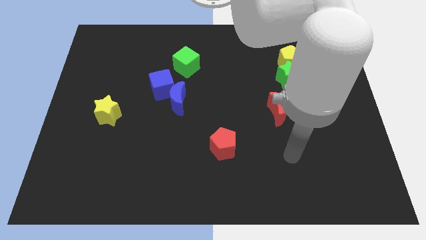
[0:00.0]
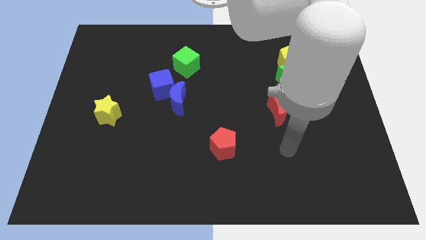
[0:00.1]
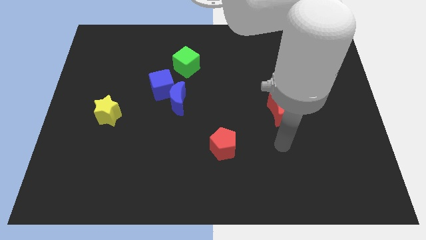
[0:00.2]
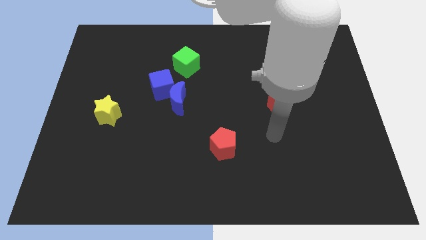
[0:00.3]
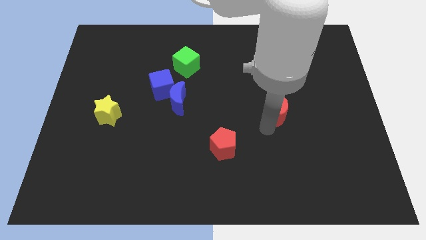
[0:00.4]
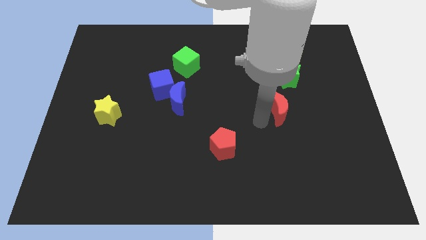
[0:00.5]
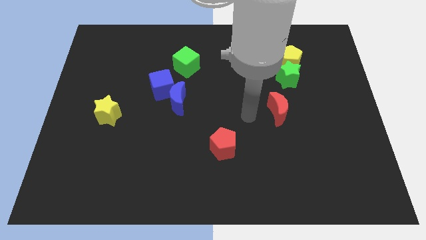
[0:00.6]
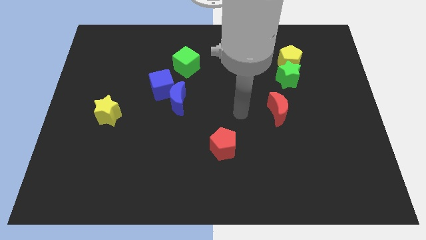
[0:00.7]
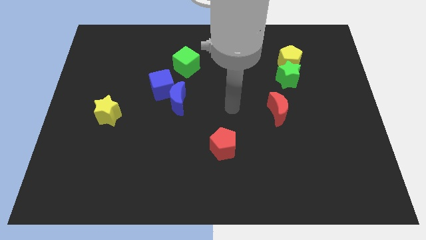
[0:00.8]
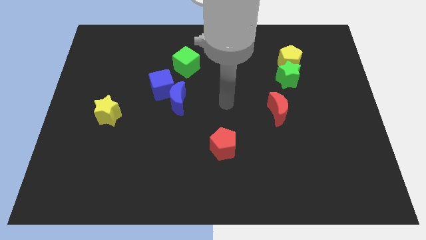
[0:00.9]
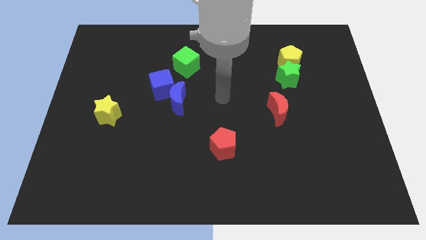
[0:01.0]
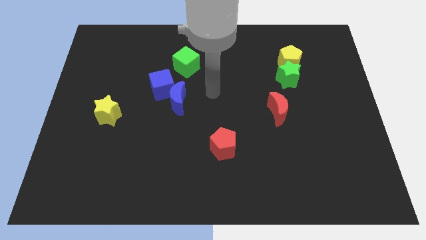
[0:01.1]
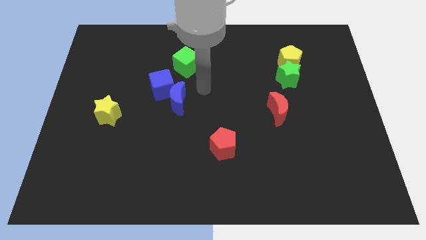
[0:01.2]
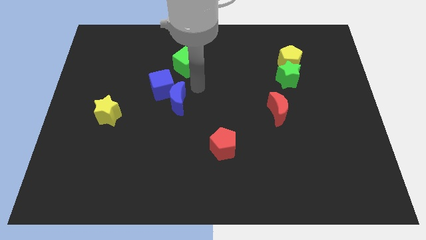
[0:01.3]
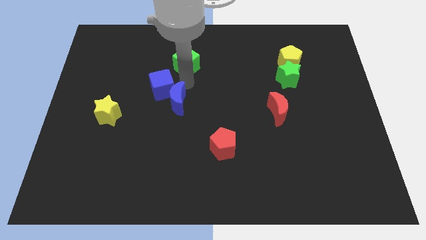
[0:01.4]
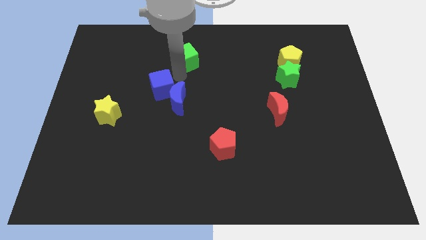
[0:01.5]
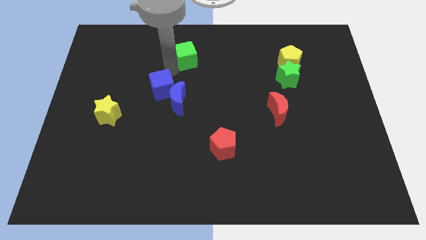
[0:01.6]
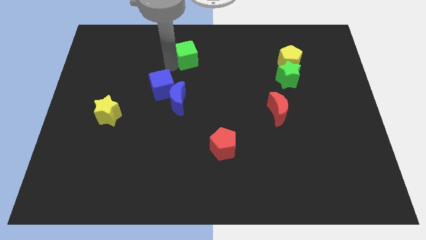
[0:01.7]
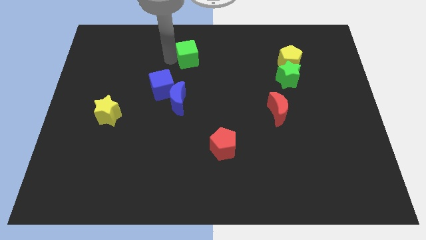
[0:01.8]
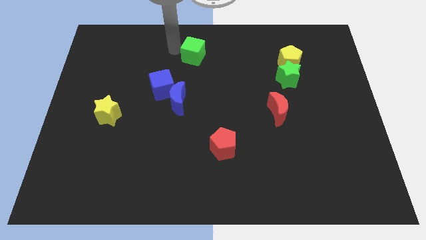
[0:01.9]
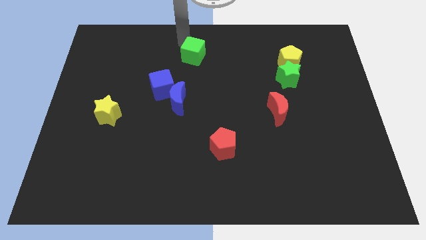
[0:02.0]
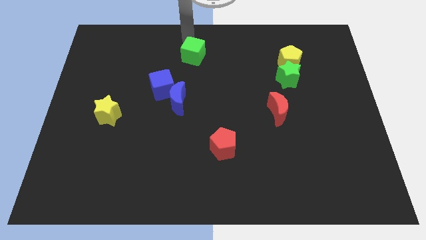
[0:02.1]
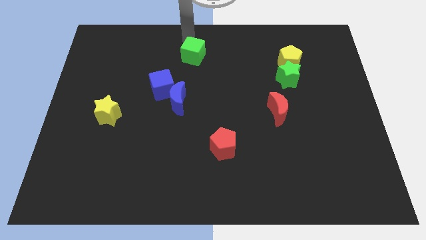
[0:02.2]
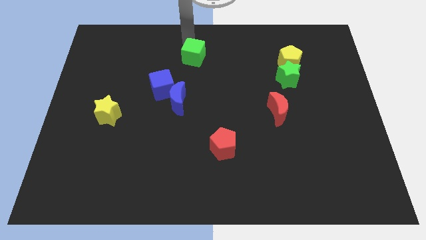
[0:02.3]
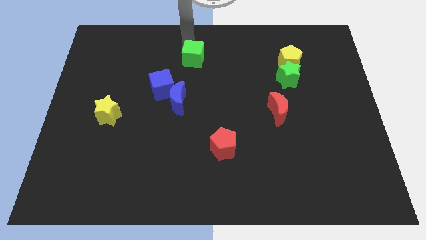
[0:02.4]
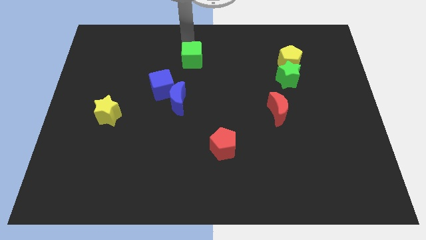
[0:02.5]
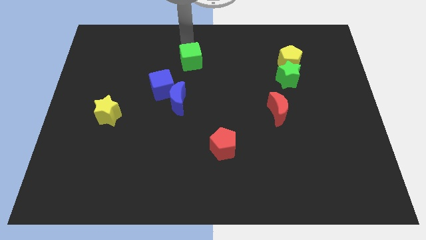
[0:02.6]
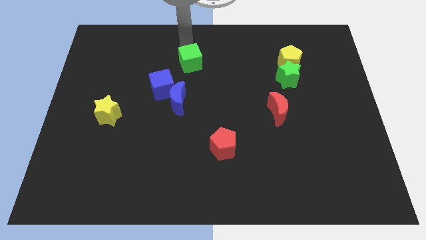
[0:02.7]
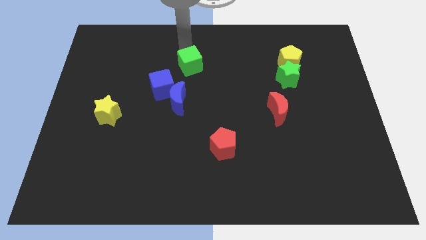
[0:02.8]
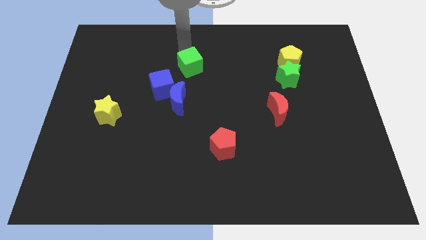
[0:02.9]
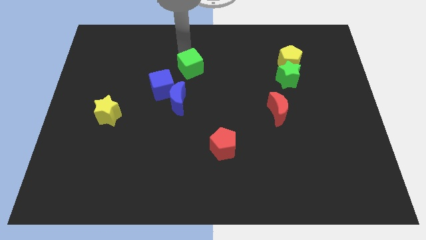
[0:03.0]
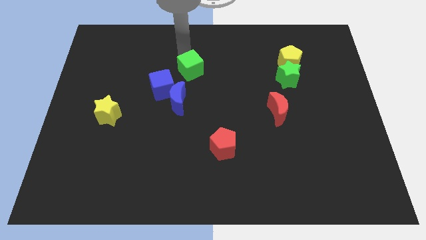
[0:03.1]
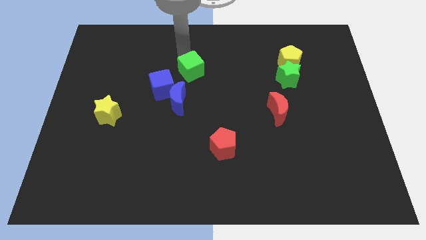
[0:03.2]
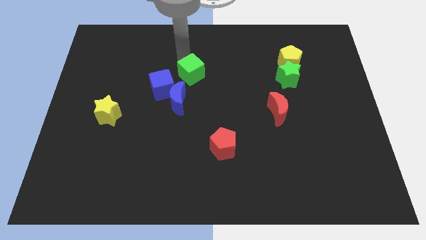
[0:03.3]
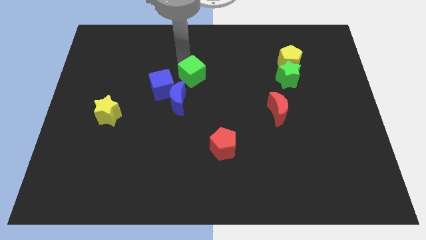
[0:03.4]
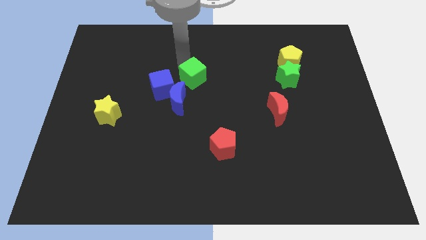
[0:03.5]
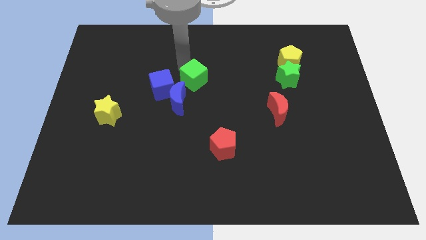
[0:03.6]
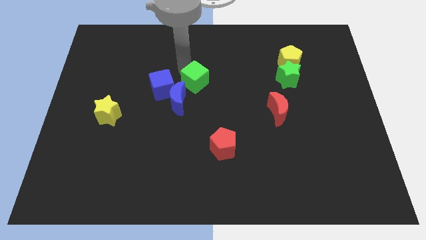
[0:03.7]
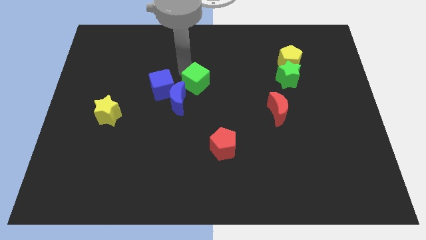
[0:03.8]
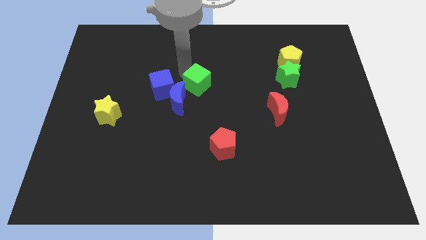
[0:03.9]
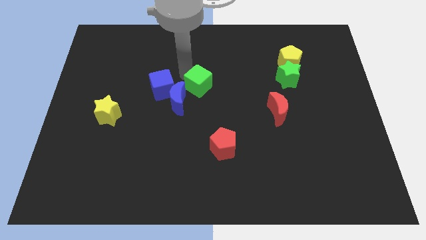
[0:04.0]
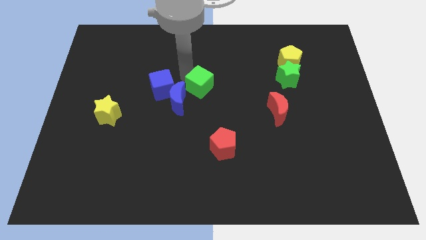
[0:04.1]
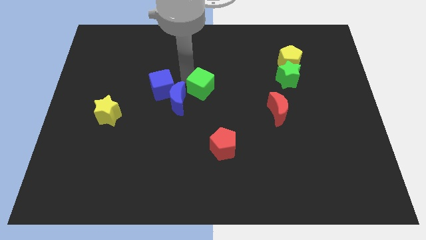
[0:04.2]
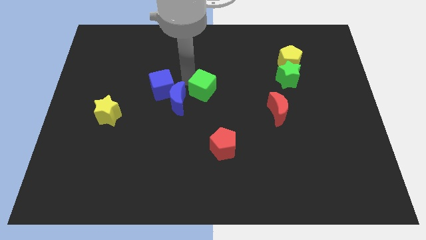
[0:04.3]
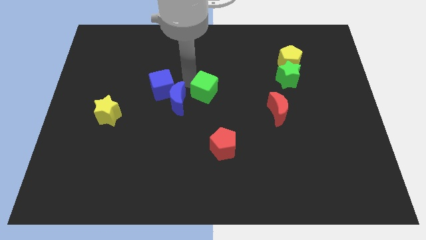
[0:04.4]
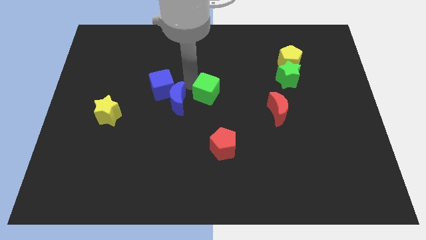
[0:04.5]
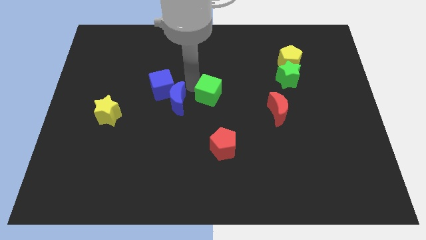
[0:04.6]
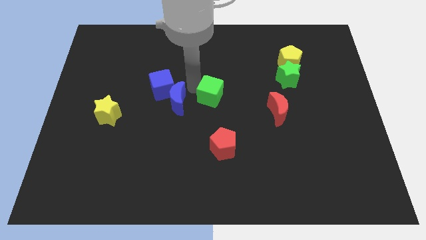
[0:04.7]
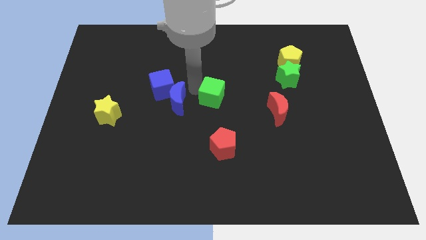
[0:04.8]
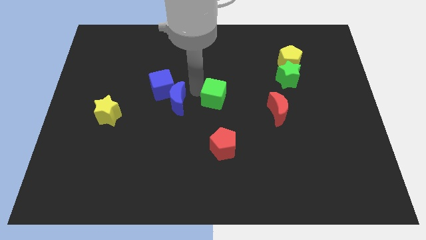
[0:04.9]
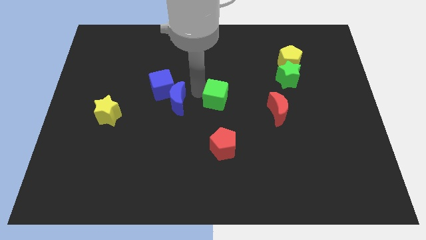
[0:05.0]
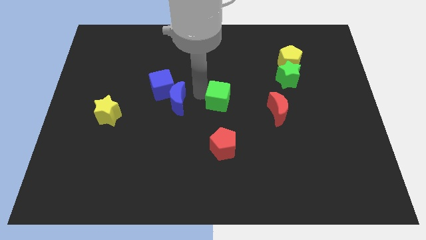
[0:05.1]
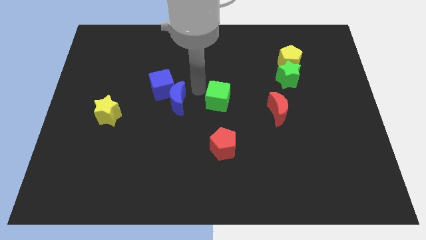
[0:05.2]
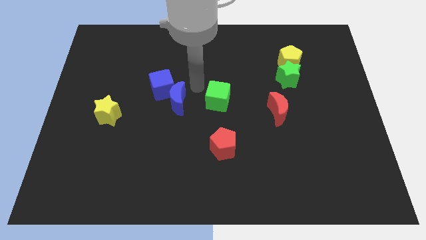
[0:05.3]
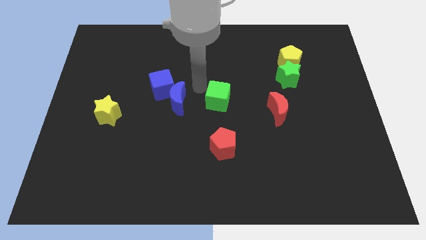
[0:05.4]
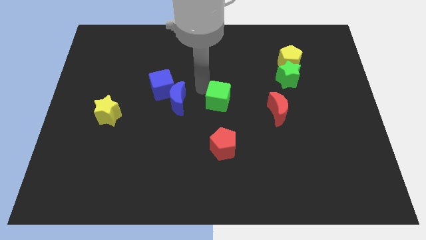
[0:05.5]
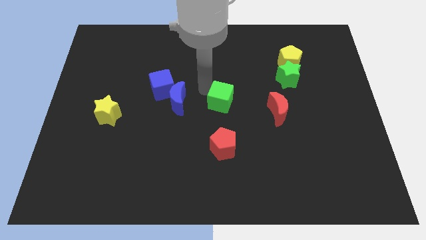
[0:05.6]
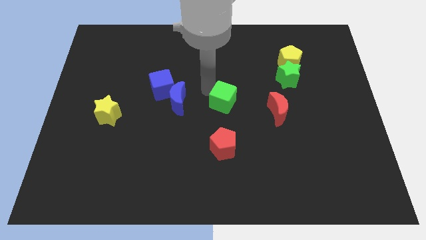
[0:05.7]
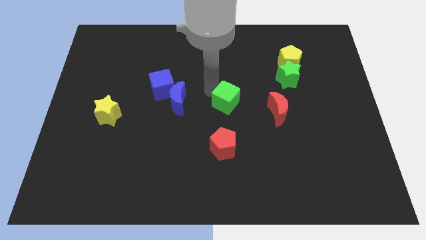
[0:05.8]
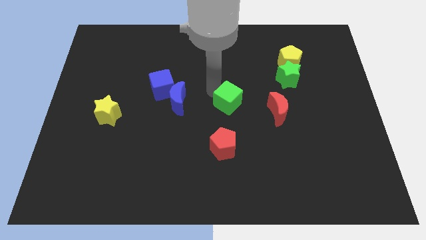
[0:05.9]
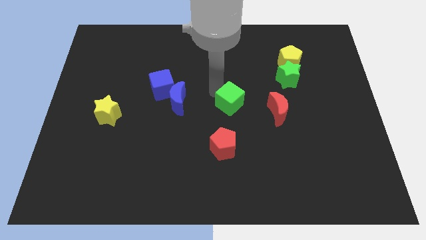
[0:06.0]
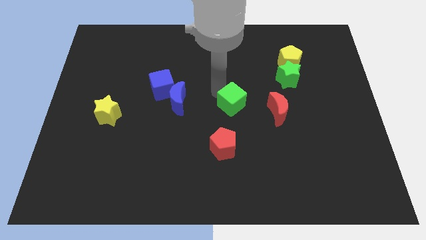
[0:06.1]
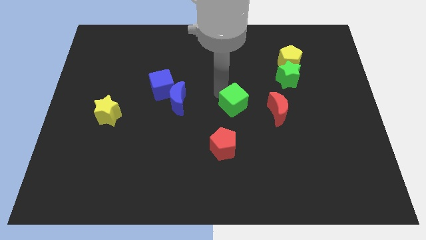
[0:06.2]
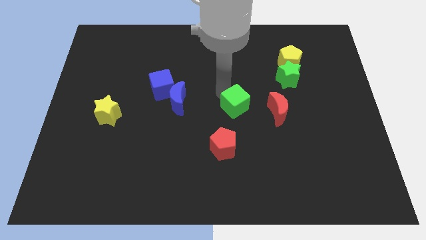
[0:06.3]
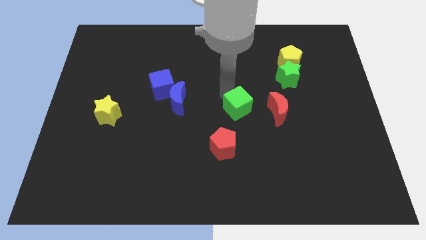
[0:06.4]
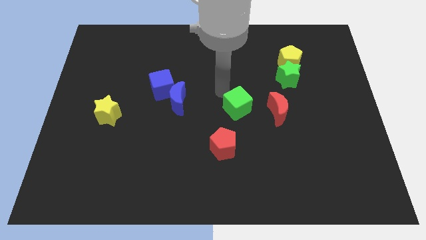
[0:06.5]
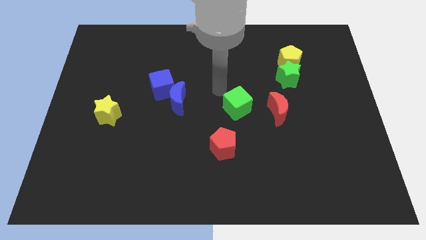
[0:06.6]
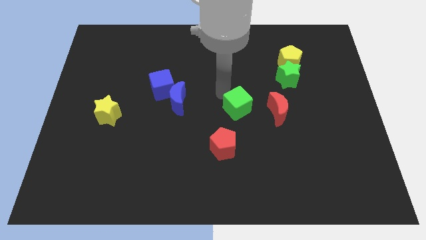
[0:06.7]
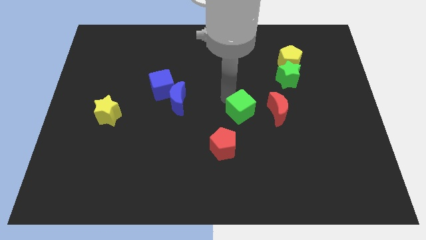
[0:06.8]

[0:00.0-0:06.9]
slide the green cube downwards and to the right diagonally

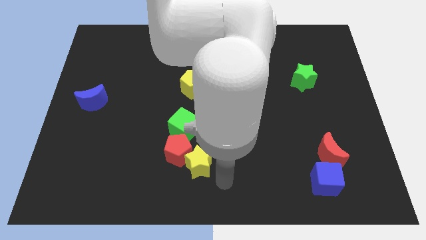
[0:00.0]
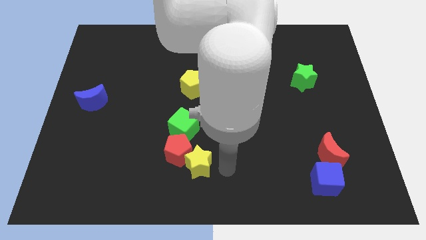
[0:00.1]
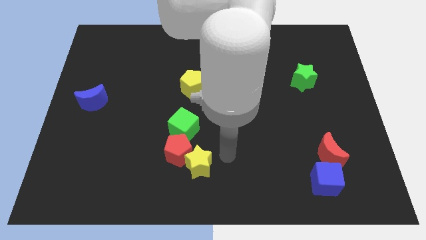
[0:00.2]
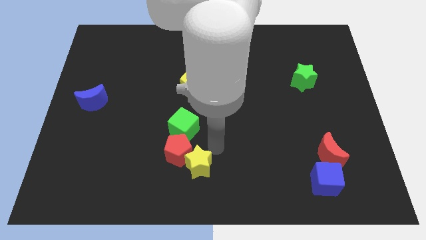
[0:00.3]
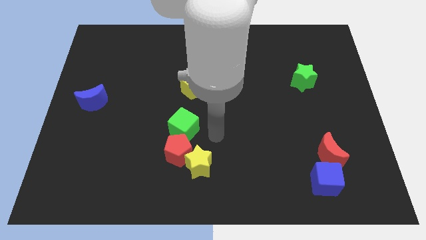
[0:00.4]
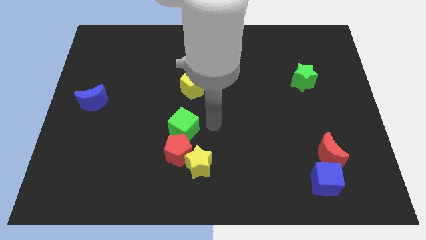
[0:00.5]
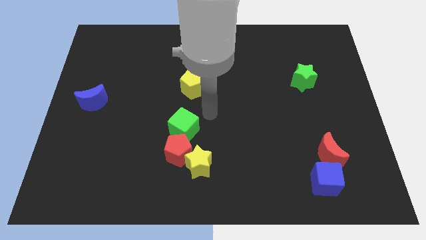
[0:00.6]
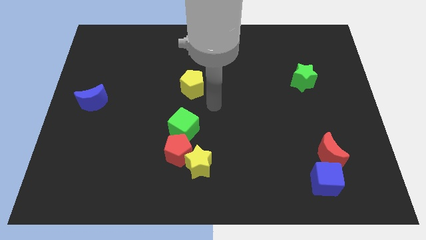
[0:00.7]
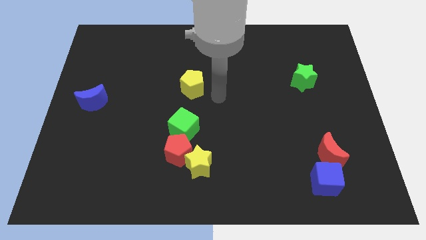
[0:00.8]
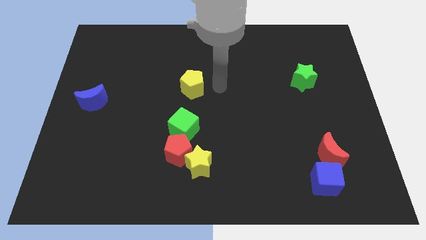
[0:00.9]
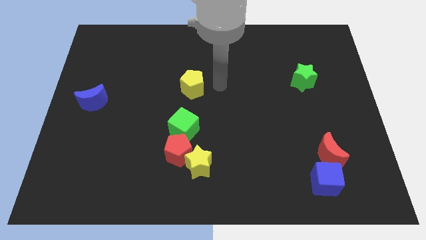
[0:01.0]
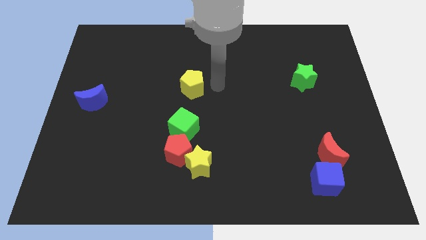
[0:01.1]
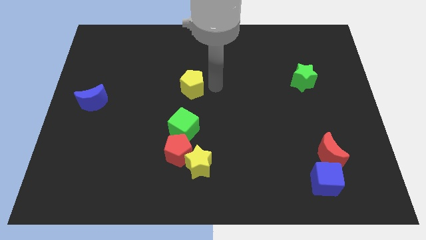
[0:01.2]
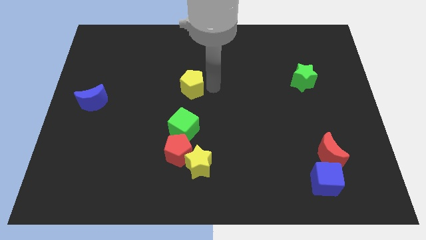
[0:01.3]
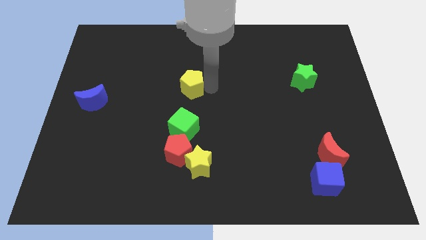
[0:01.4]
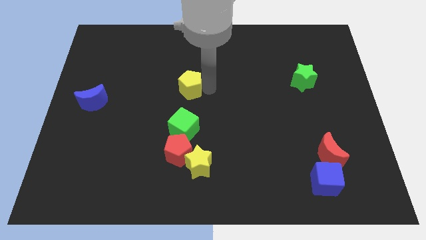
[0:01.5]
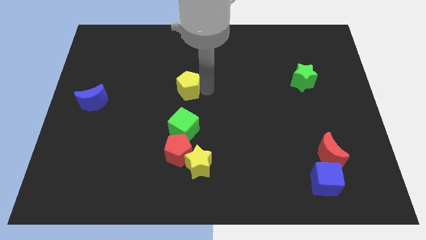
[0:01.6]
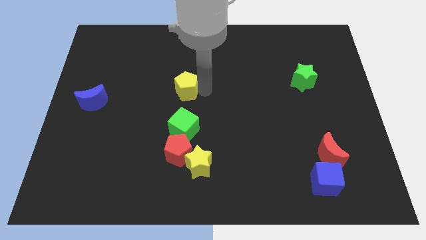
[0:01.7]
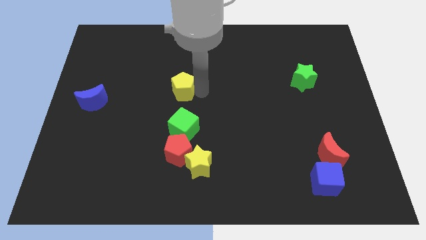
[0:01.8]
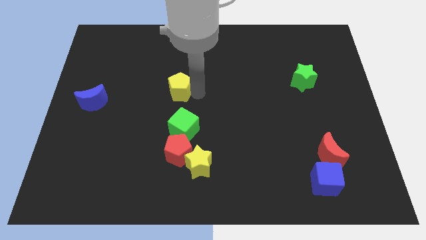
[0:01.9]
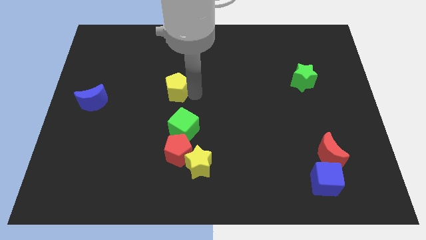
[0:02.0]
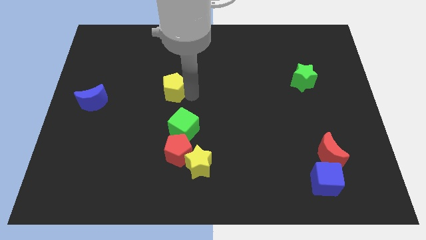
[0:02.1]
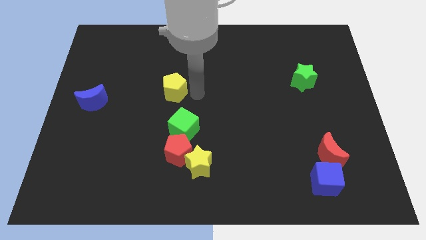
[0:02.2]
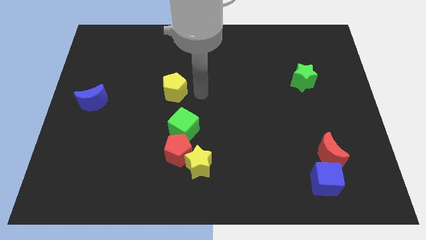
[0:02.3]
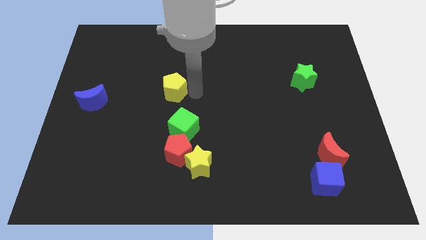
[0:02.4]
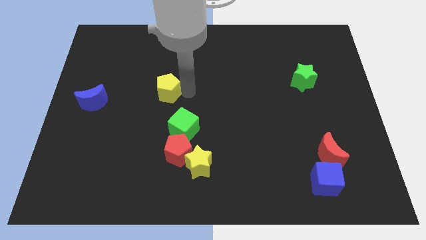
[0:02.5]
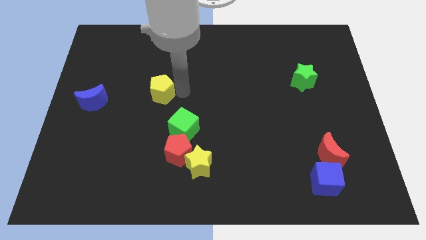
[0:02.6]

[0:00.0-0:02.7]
move the yellow pentagon somewhat left
